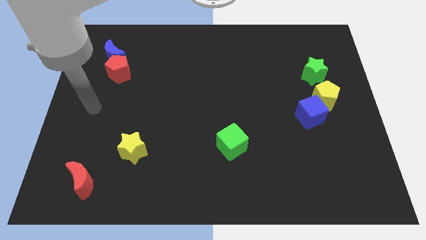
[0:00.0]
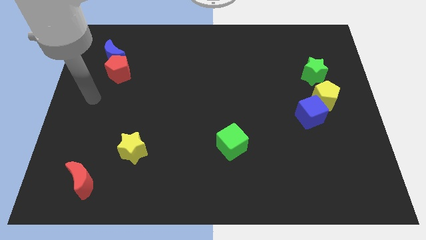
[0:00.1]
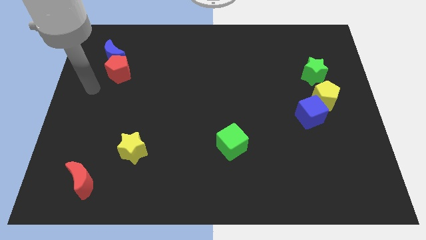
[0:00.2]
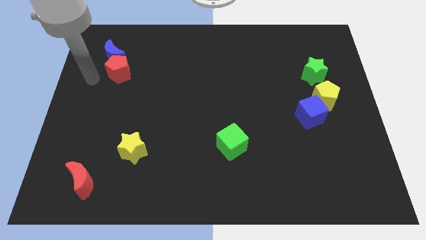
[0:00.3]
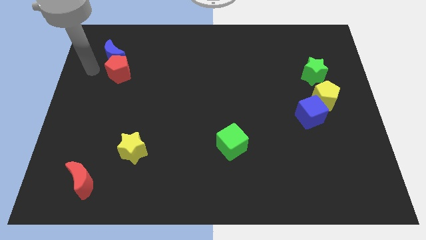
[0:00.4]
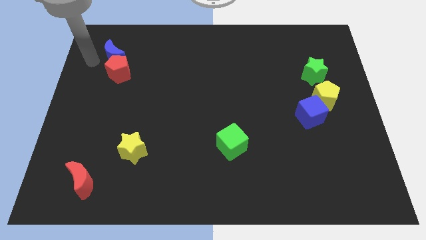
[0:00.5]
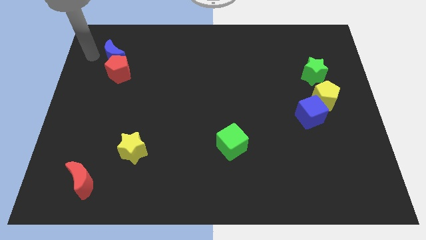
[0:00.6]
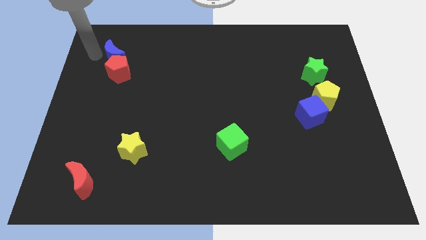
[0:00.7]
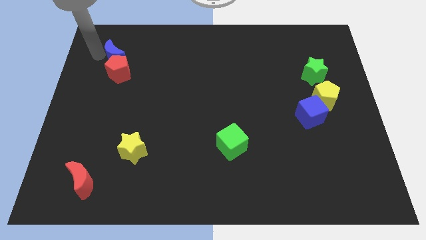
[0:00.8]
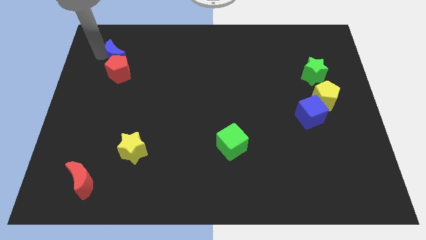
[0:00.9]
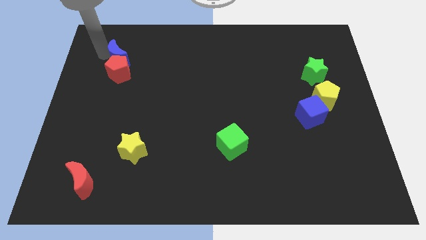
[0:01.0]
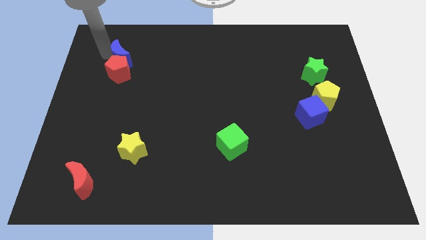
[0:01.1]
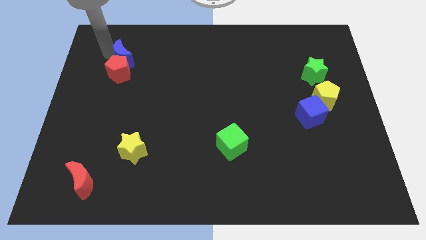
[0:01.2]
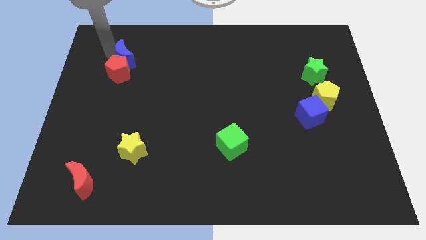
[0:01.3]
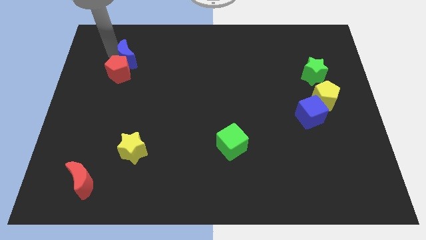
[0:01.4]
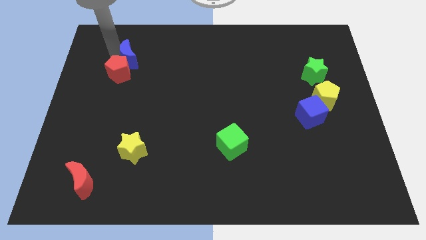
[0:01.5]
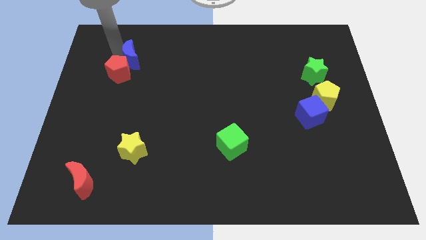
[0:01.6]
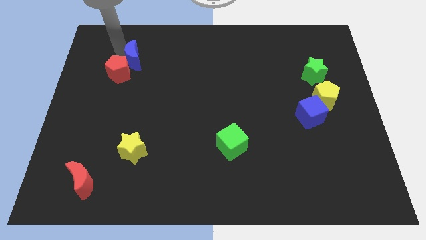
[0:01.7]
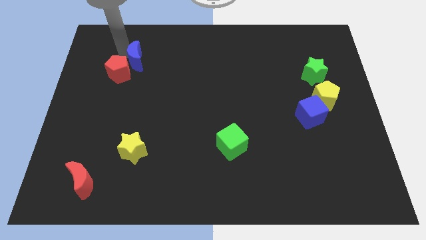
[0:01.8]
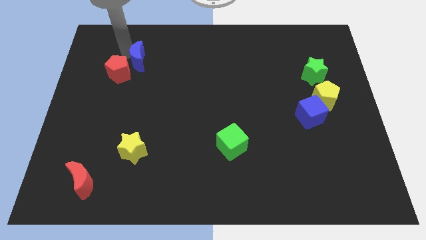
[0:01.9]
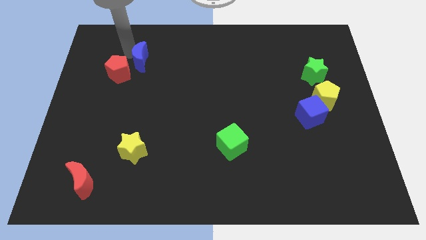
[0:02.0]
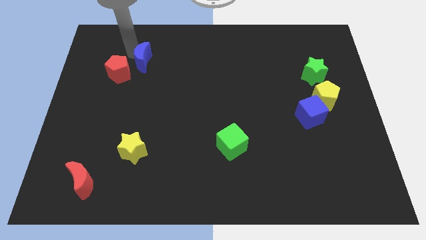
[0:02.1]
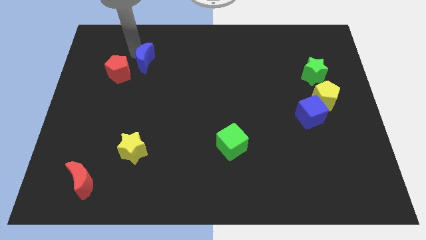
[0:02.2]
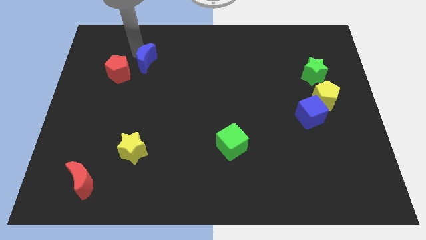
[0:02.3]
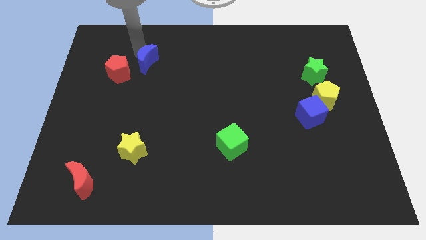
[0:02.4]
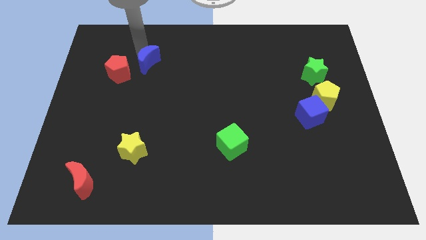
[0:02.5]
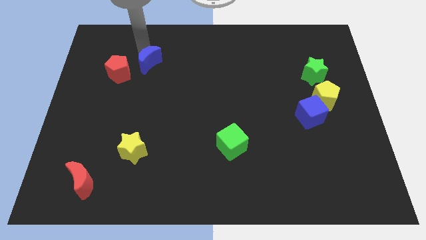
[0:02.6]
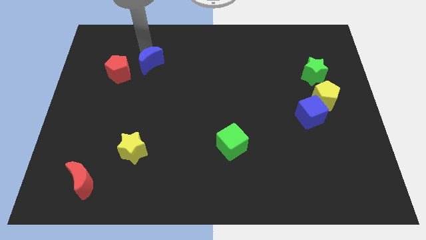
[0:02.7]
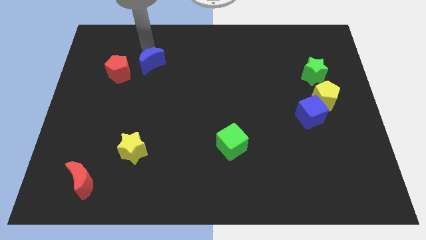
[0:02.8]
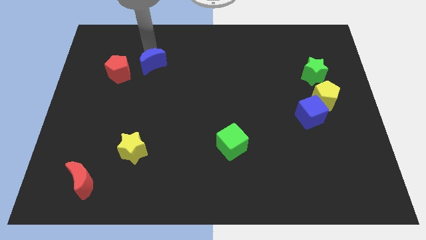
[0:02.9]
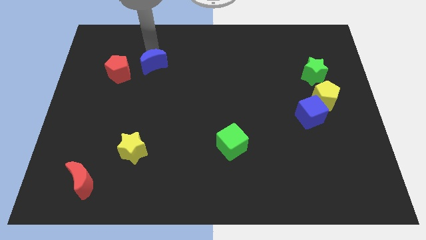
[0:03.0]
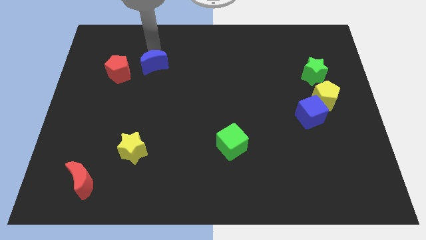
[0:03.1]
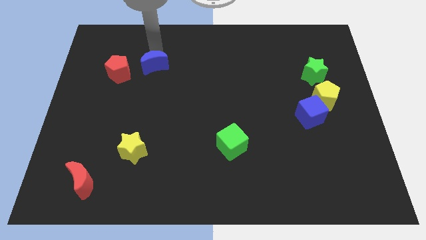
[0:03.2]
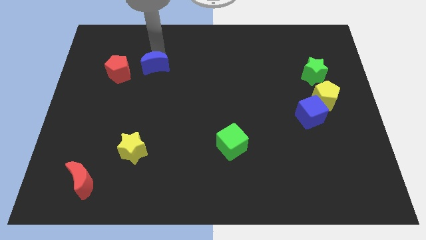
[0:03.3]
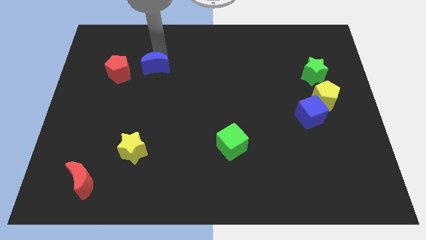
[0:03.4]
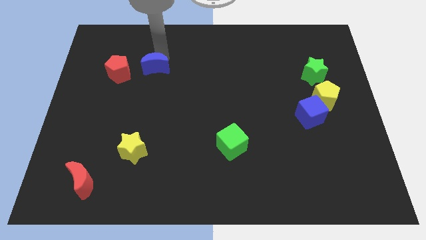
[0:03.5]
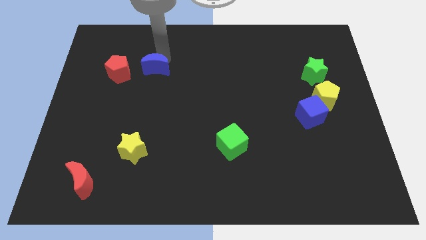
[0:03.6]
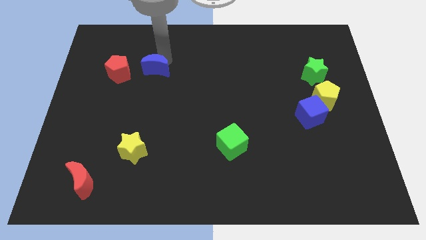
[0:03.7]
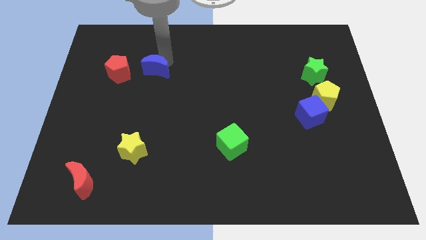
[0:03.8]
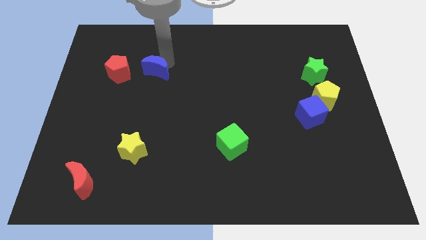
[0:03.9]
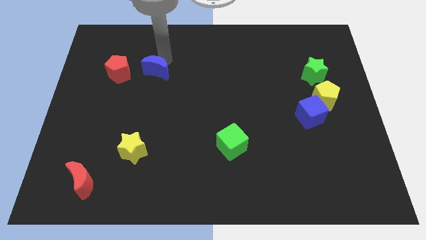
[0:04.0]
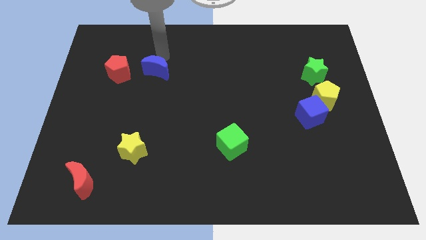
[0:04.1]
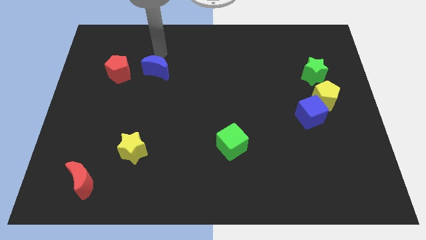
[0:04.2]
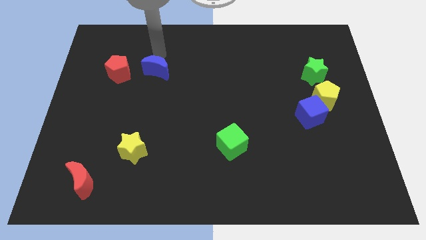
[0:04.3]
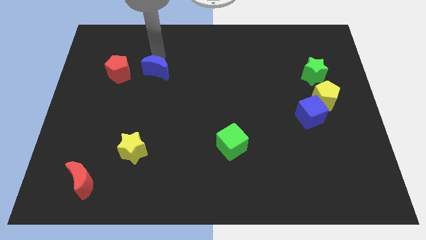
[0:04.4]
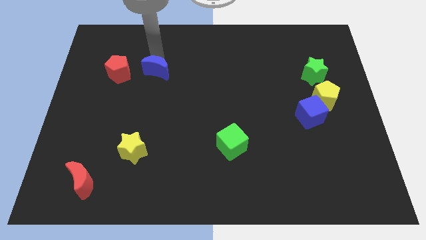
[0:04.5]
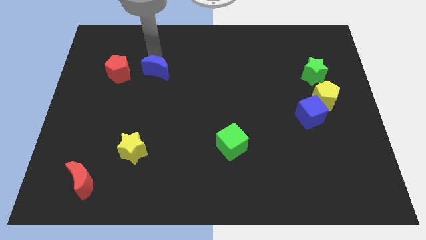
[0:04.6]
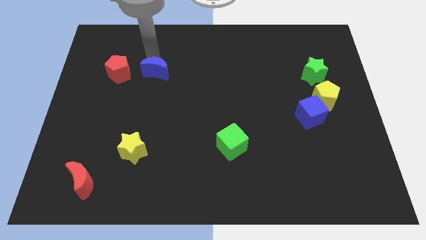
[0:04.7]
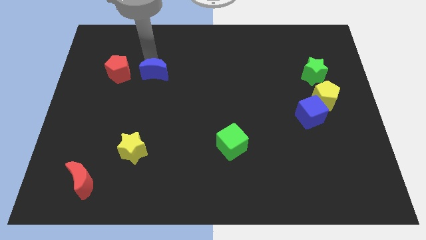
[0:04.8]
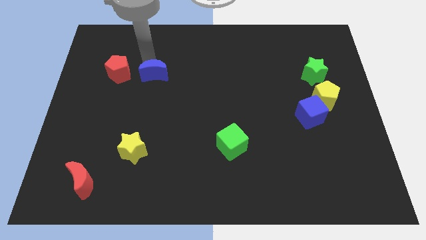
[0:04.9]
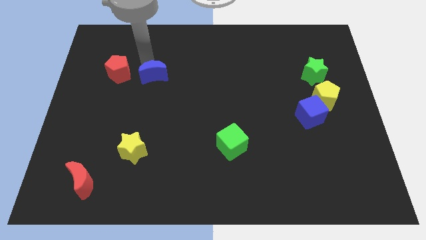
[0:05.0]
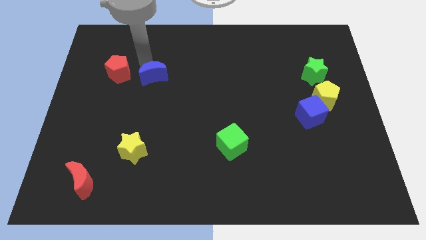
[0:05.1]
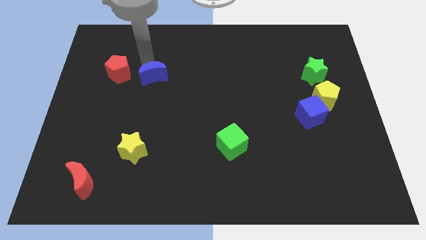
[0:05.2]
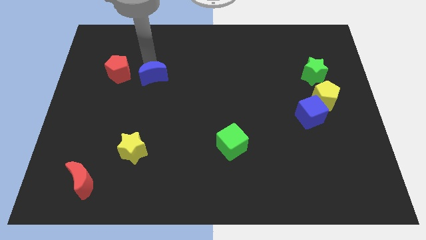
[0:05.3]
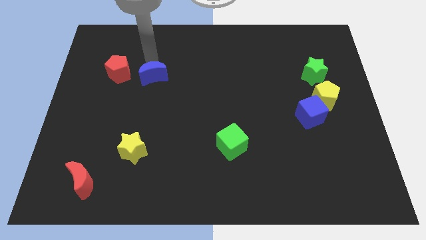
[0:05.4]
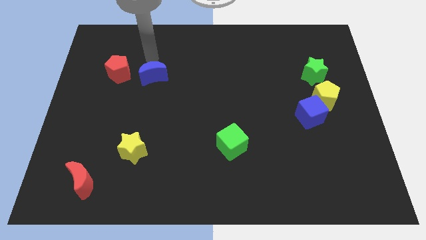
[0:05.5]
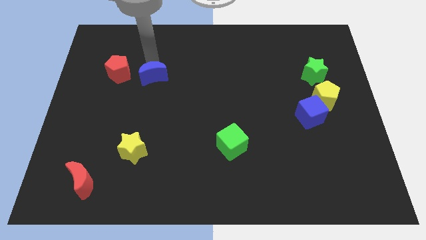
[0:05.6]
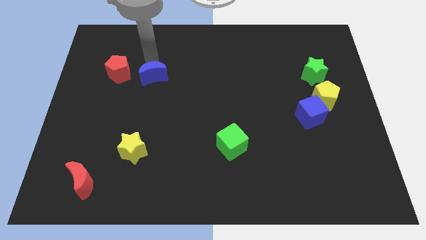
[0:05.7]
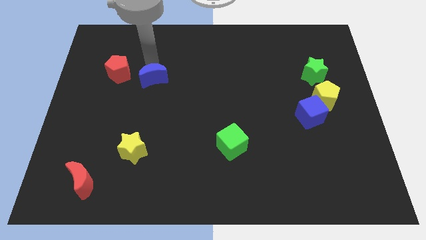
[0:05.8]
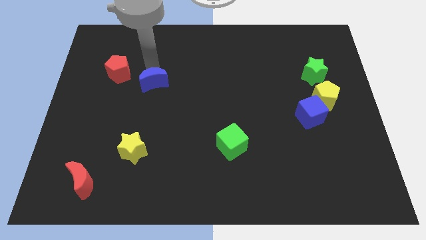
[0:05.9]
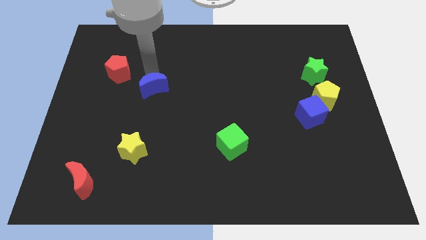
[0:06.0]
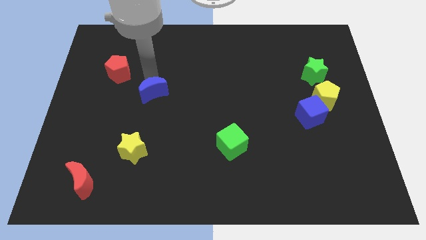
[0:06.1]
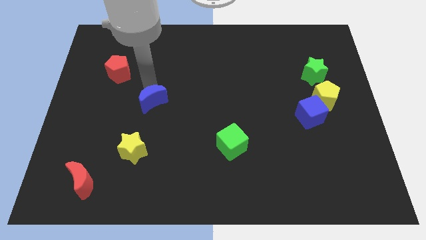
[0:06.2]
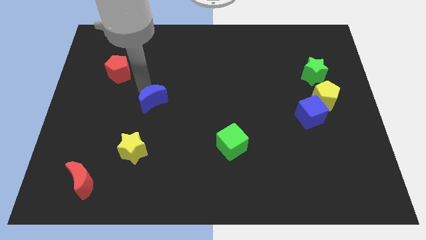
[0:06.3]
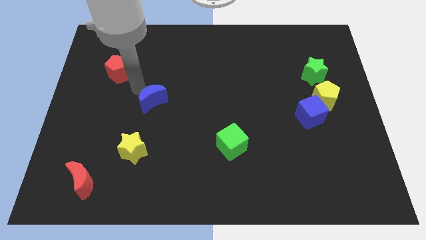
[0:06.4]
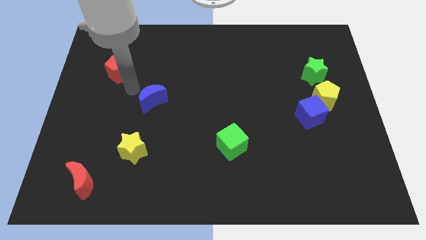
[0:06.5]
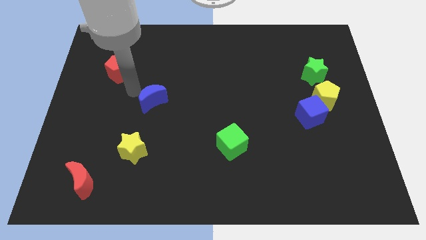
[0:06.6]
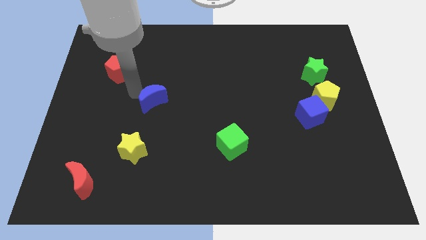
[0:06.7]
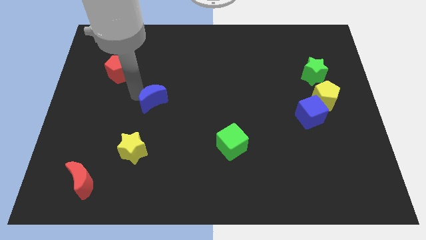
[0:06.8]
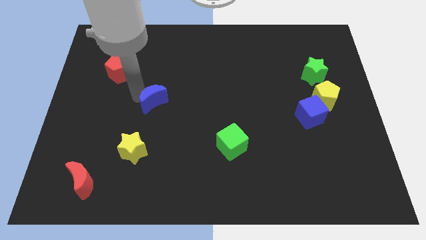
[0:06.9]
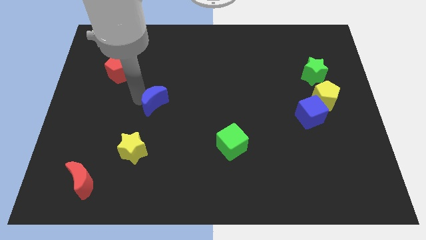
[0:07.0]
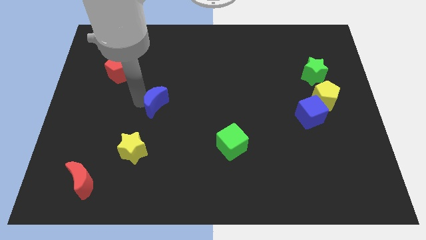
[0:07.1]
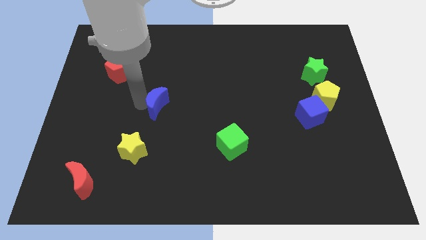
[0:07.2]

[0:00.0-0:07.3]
slide the blue moon diagonally down and right

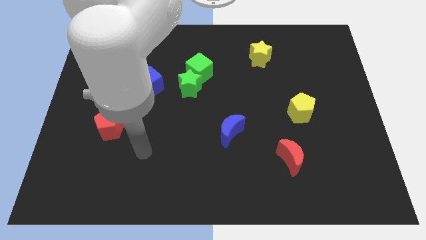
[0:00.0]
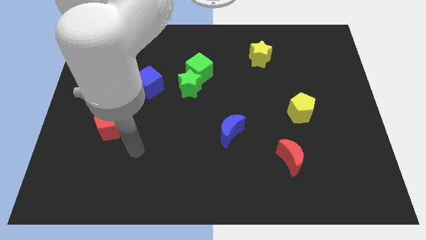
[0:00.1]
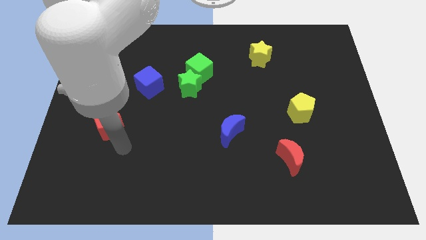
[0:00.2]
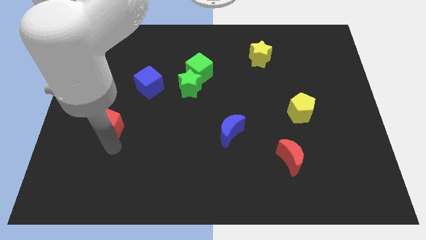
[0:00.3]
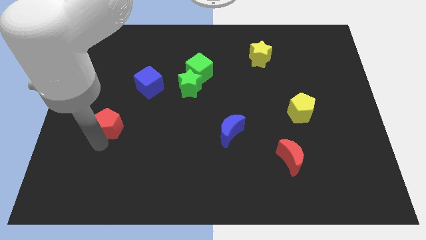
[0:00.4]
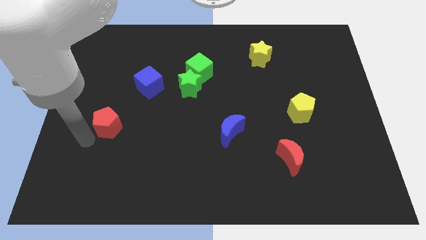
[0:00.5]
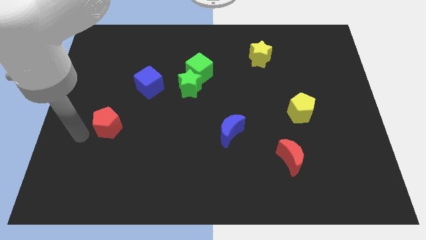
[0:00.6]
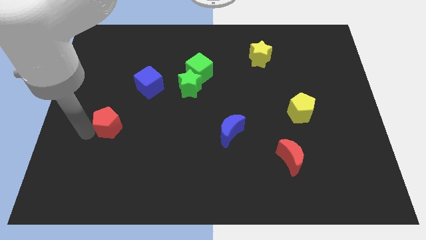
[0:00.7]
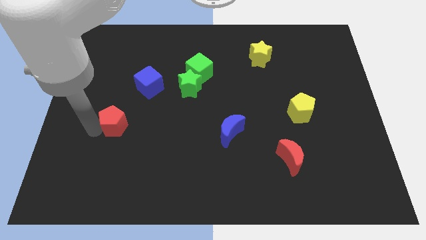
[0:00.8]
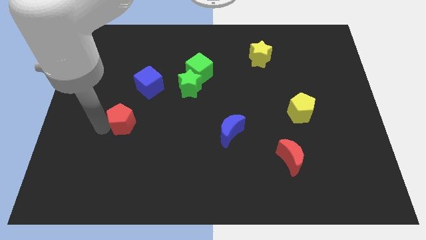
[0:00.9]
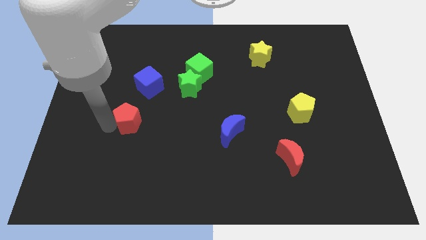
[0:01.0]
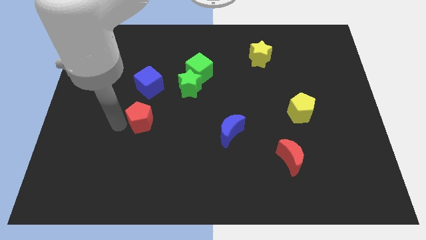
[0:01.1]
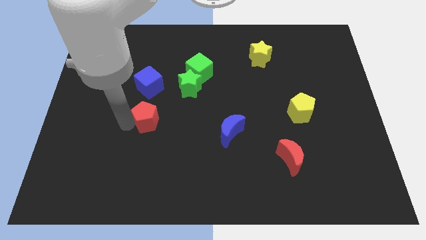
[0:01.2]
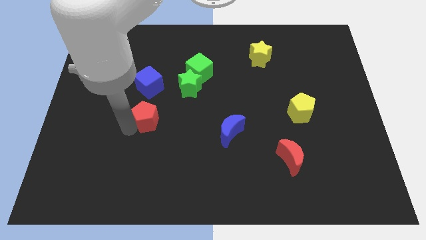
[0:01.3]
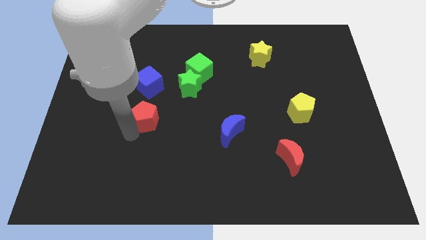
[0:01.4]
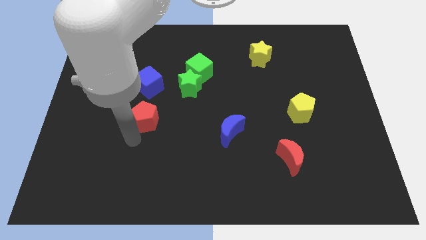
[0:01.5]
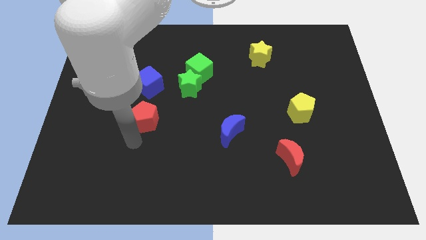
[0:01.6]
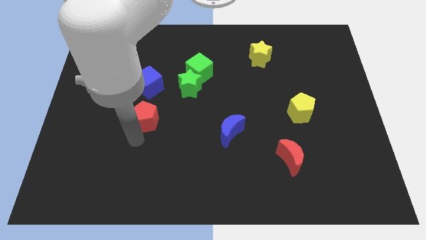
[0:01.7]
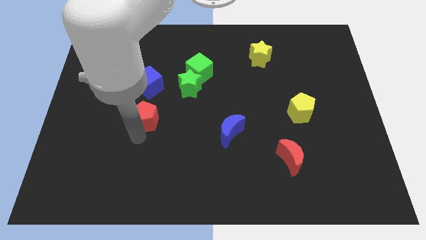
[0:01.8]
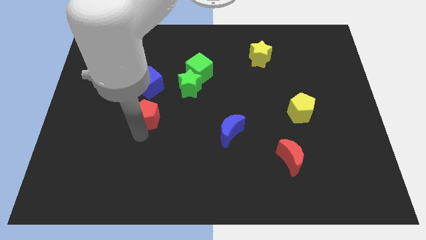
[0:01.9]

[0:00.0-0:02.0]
slide the red pentagon a little diagonally up and to the right
